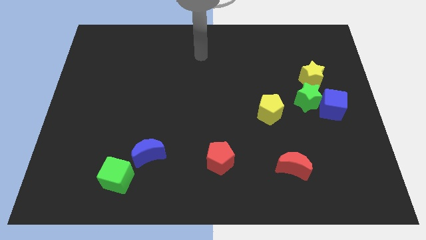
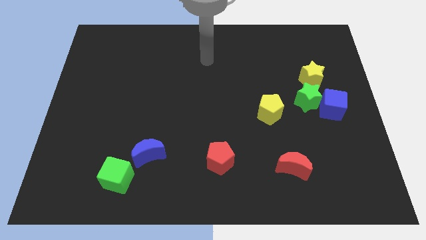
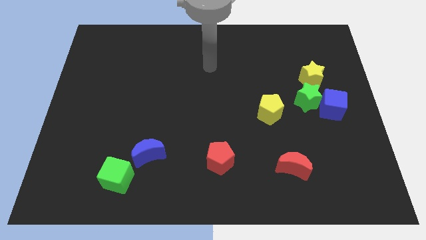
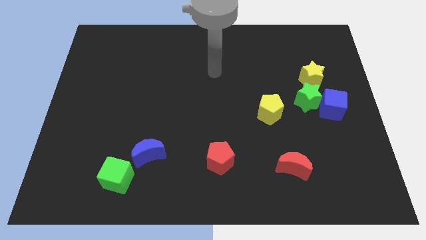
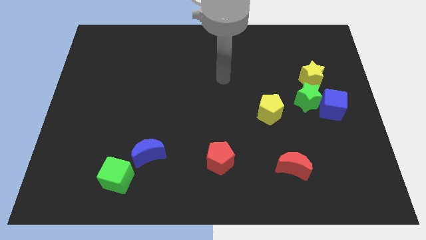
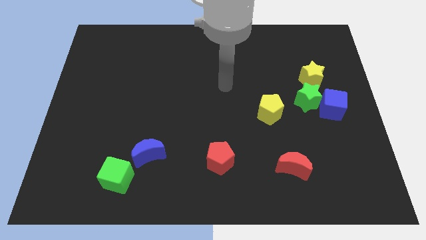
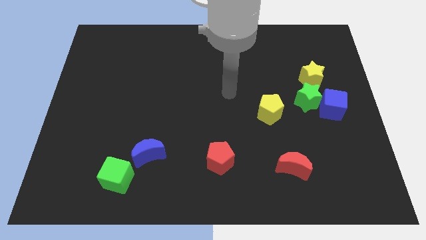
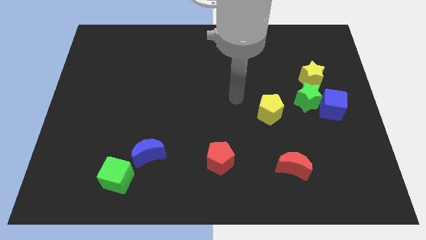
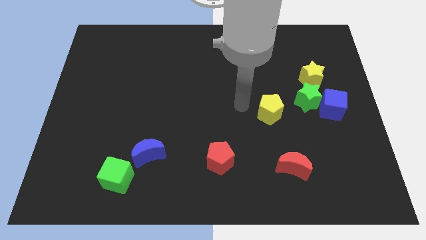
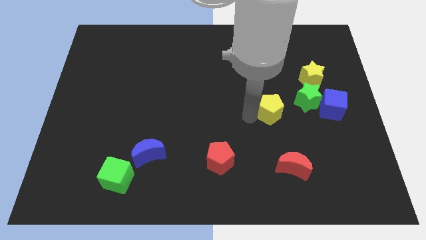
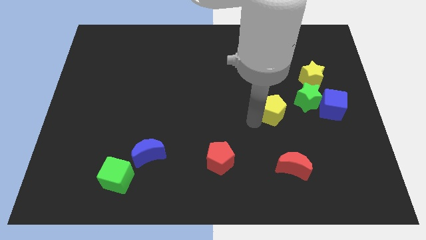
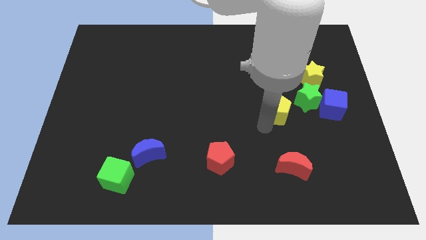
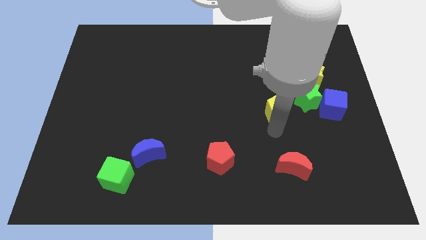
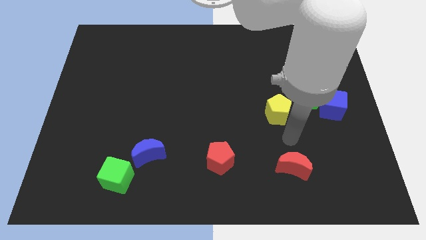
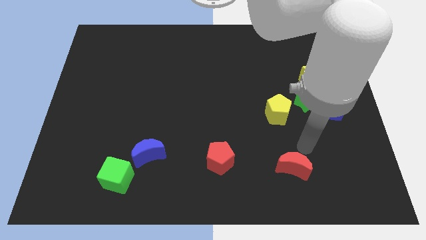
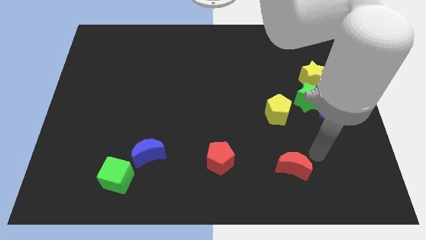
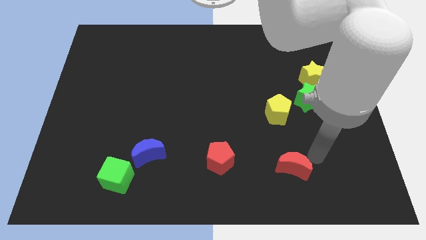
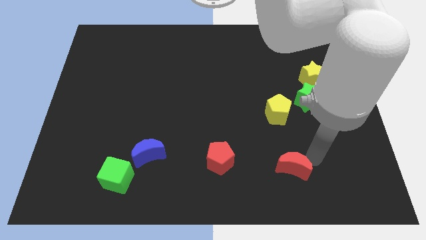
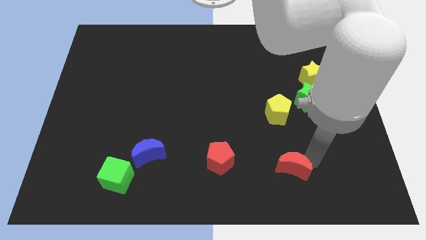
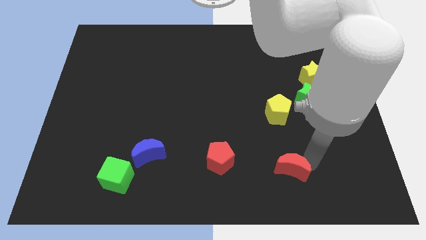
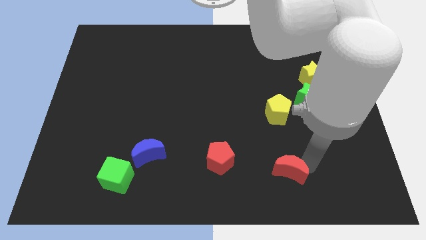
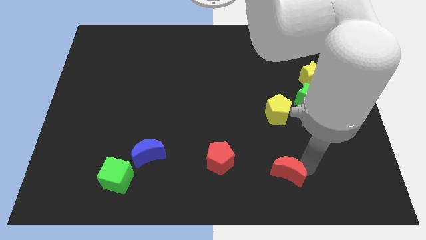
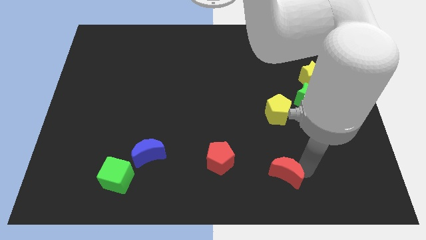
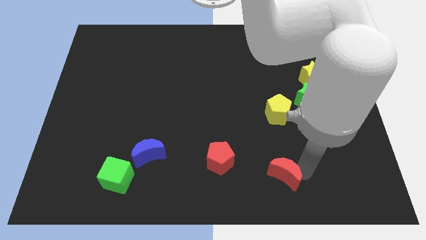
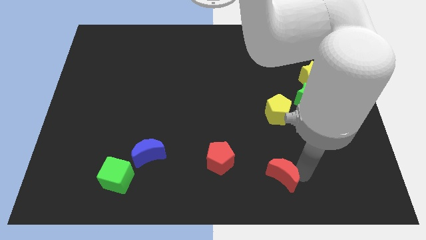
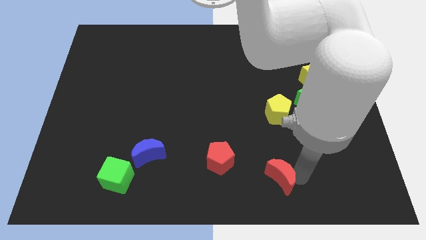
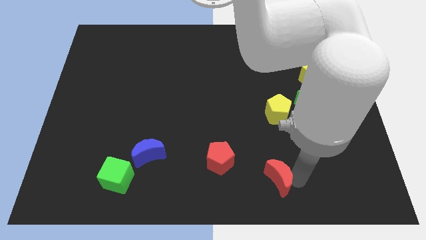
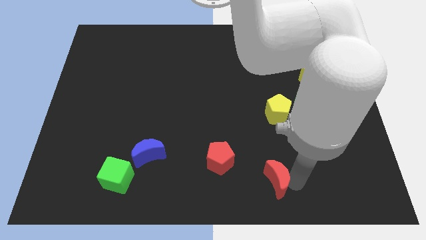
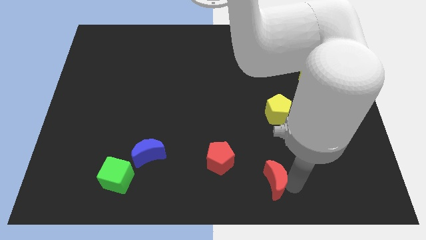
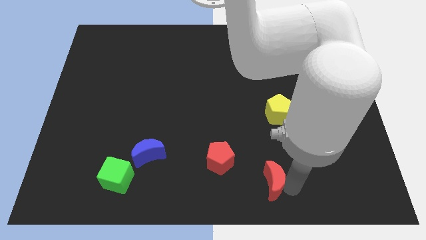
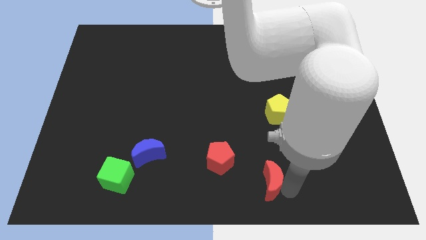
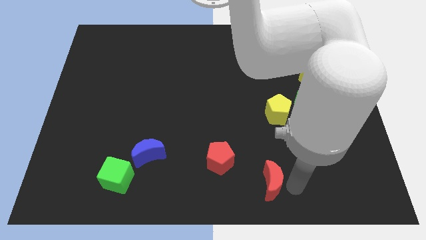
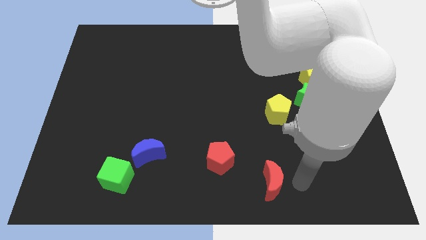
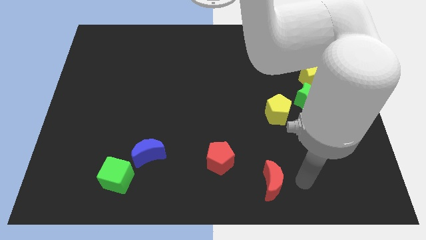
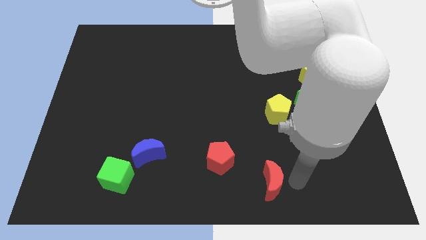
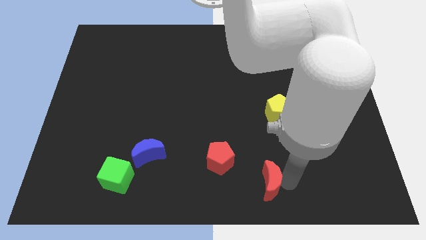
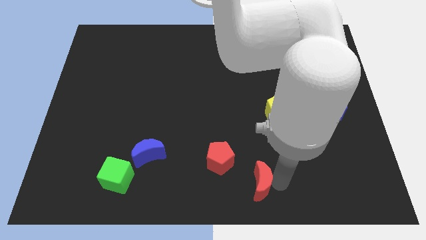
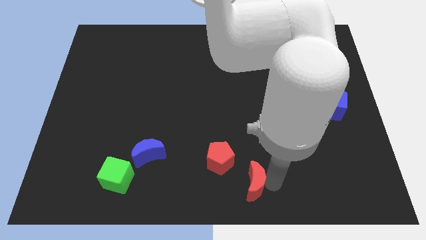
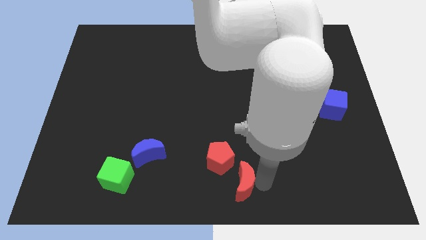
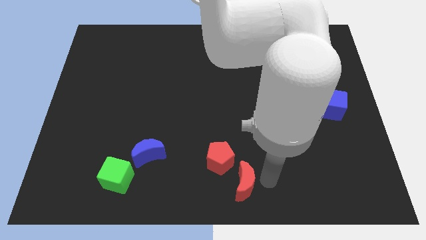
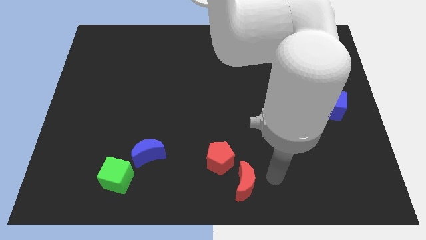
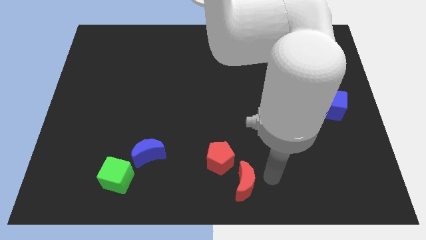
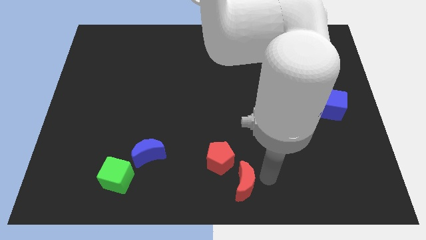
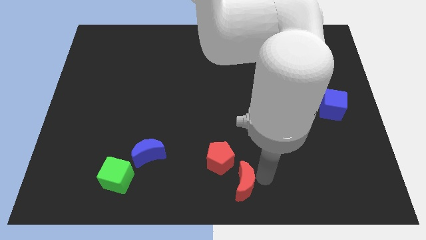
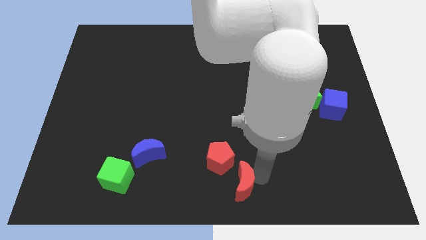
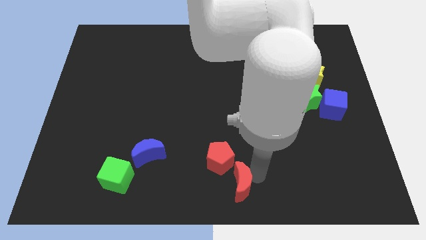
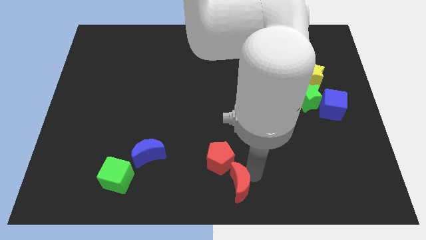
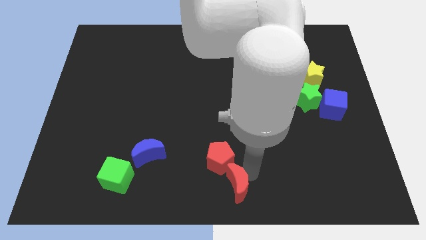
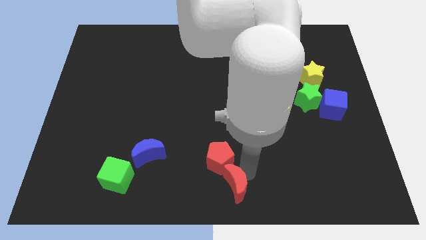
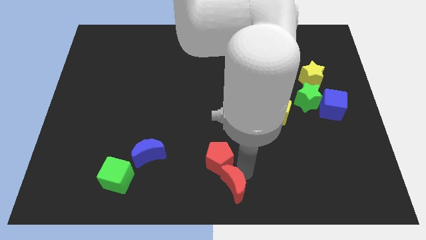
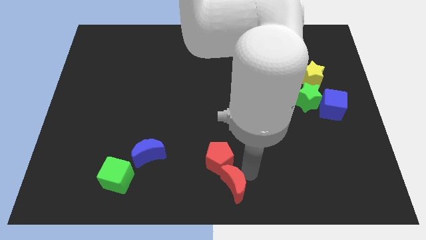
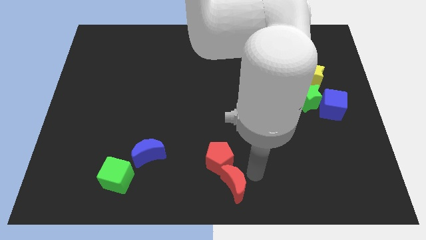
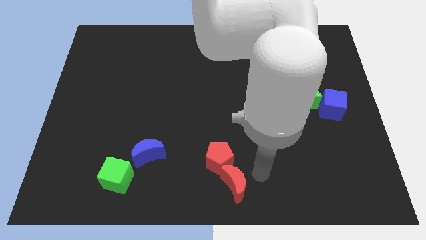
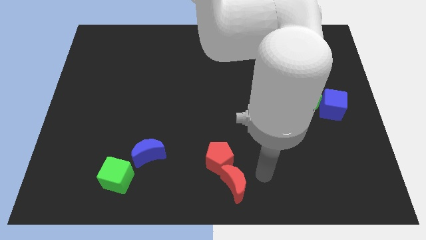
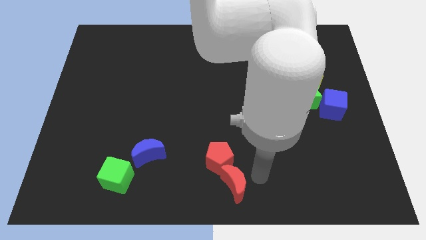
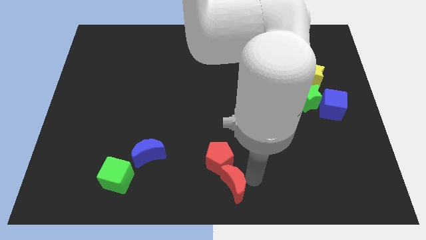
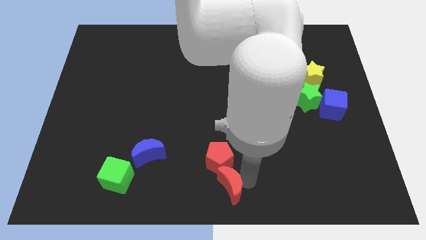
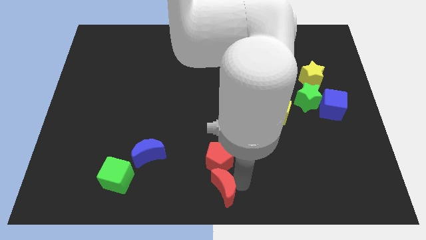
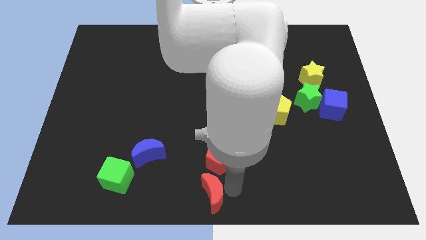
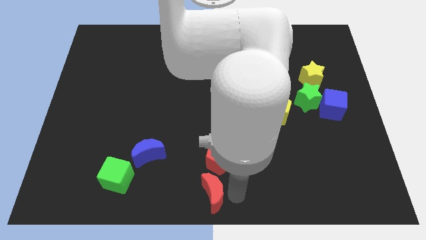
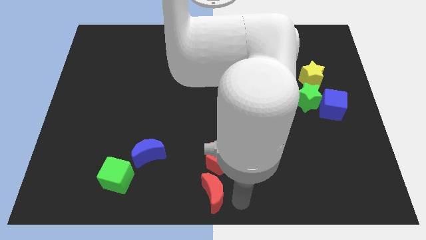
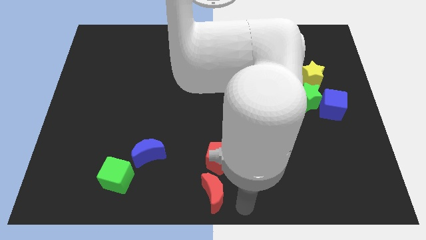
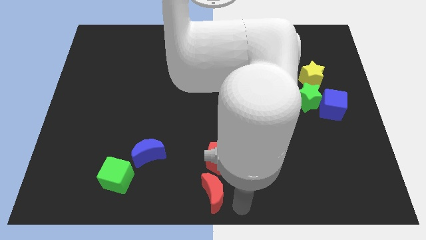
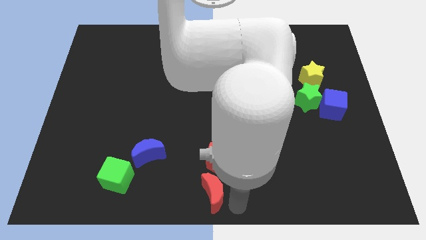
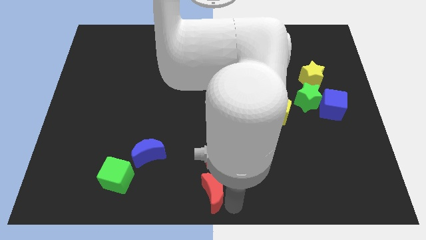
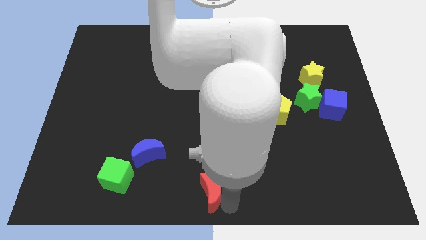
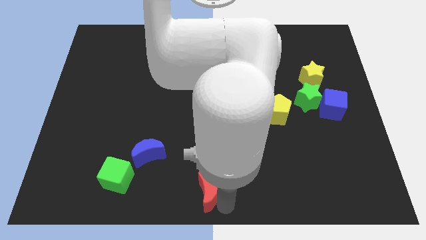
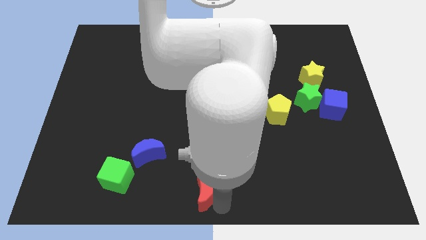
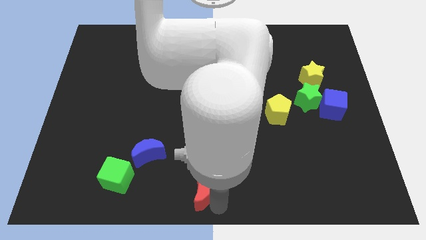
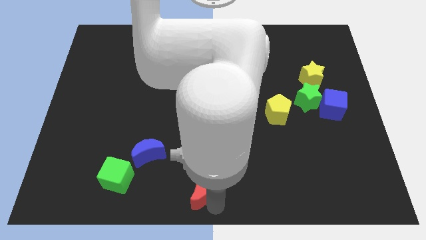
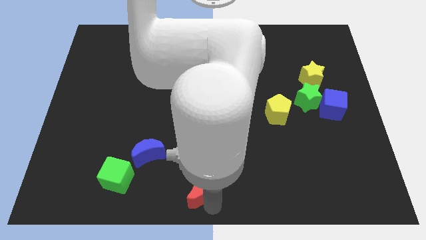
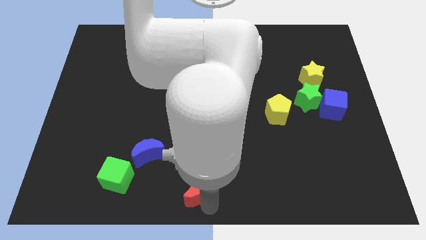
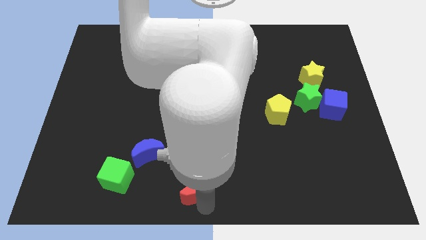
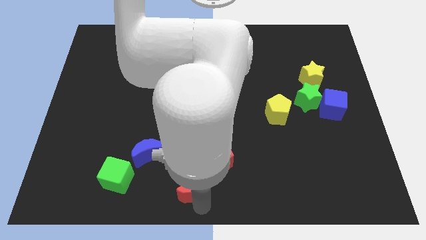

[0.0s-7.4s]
move the red moon to the bottom right of the blue moon

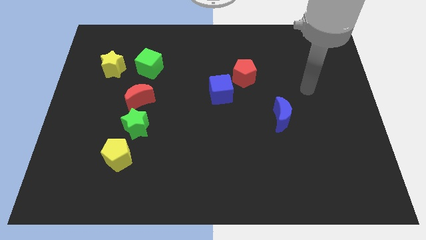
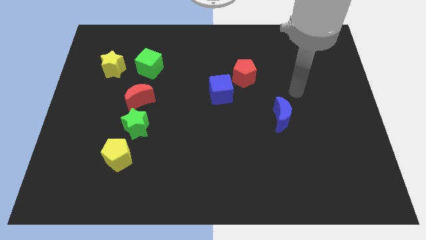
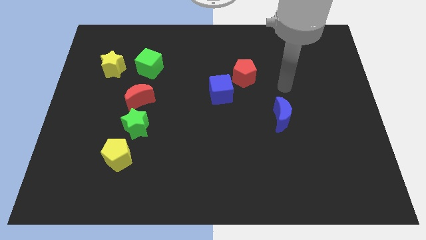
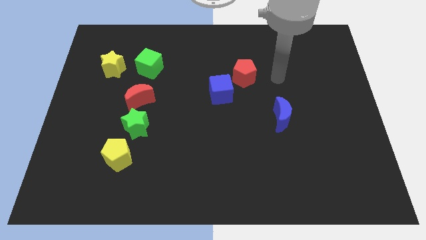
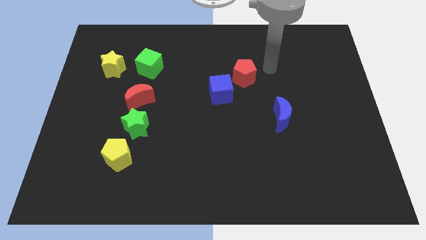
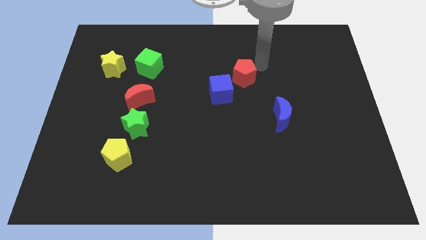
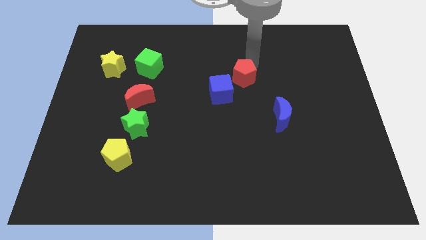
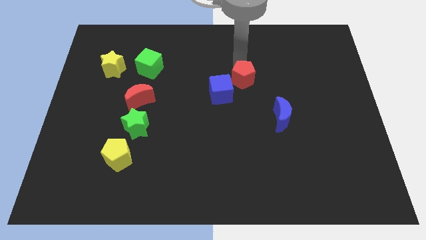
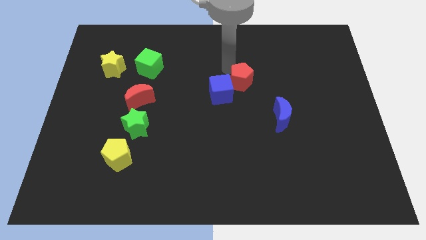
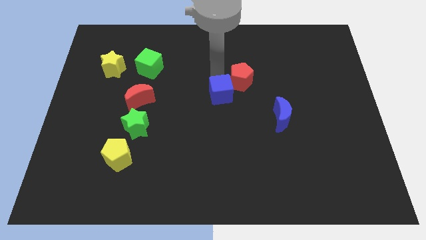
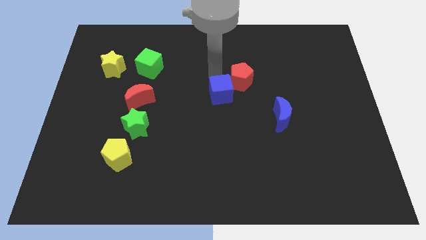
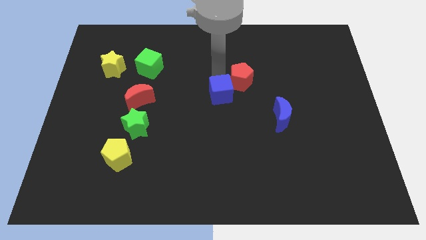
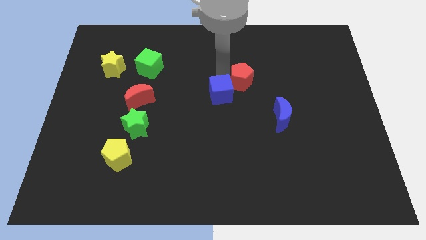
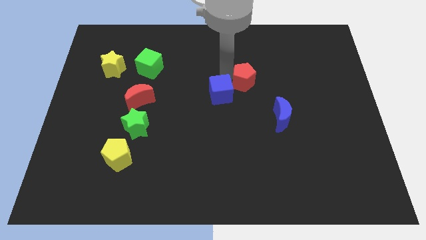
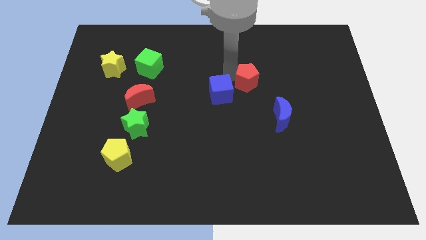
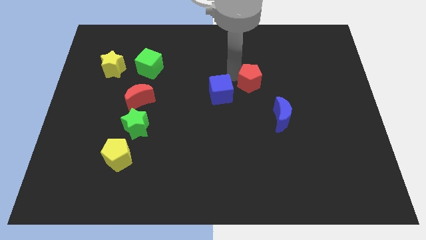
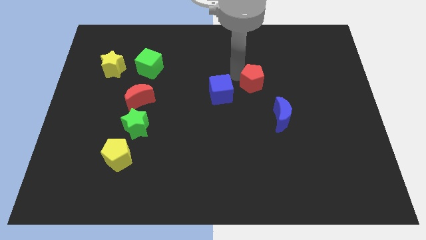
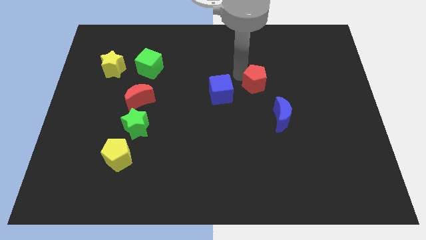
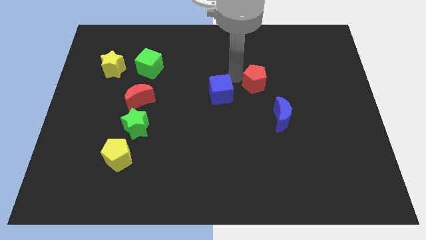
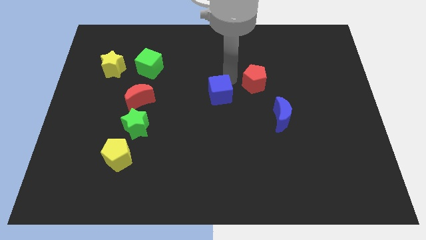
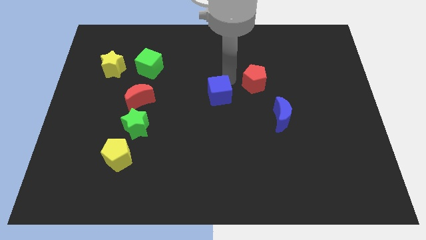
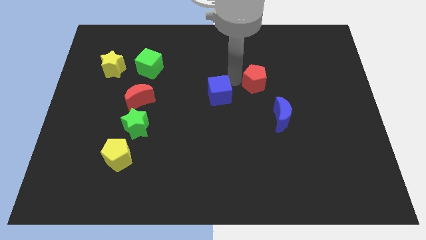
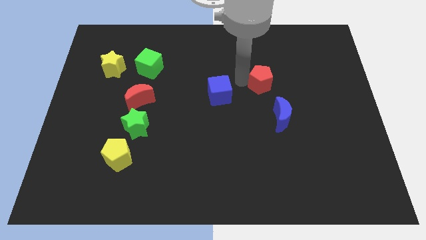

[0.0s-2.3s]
move the red pentagon to the top side of the blue moon
